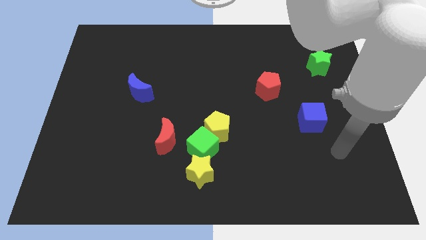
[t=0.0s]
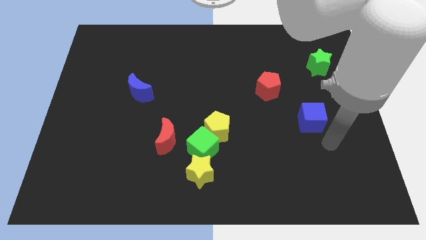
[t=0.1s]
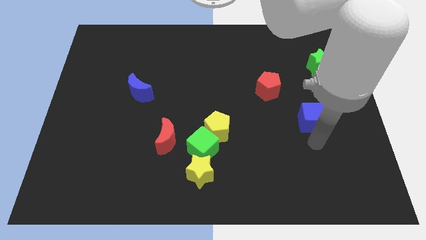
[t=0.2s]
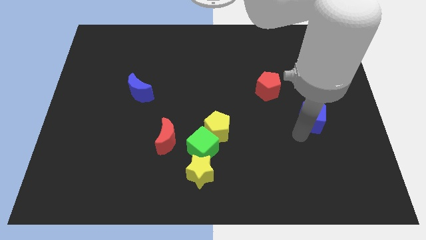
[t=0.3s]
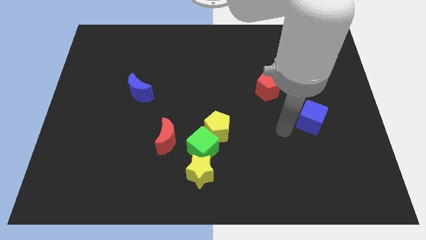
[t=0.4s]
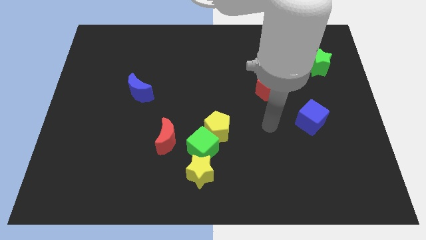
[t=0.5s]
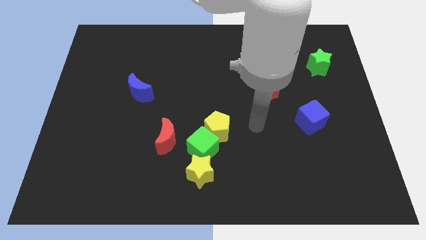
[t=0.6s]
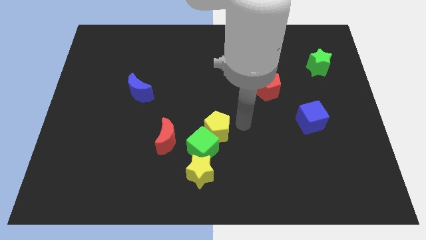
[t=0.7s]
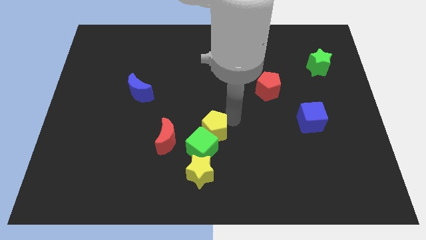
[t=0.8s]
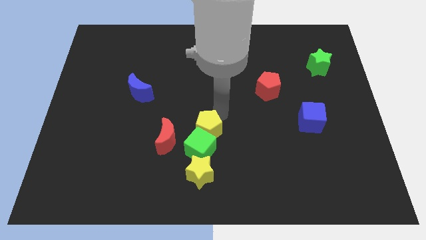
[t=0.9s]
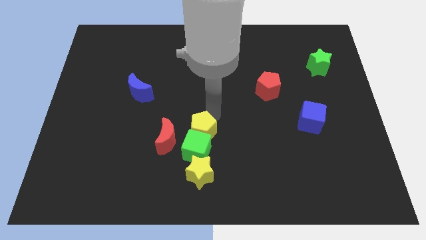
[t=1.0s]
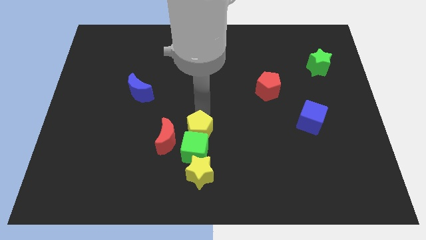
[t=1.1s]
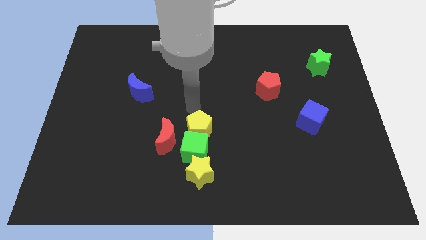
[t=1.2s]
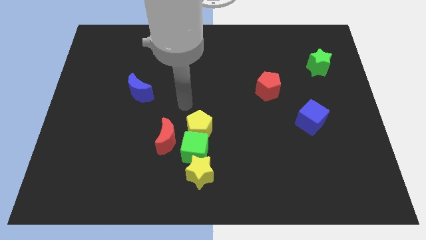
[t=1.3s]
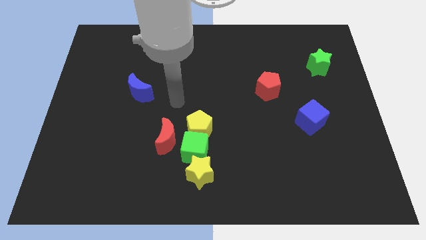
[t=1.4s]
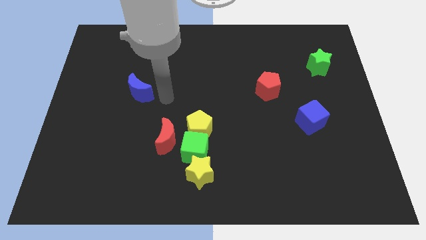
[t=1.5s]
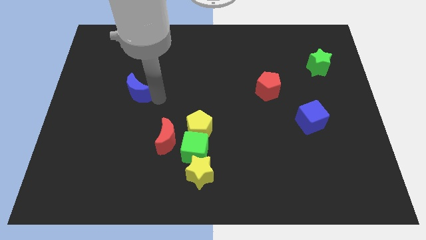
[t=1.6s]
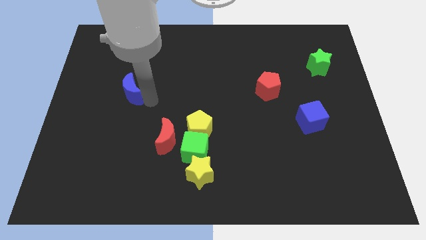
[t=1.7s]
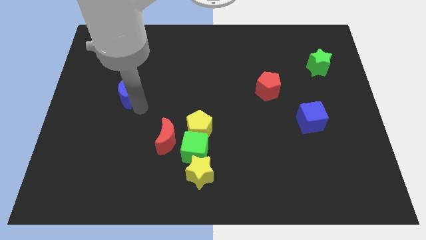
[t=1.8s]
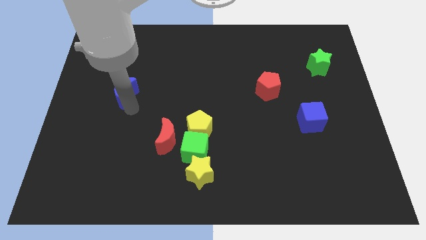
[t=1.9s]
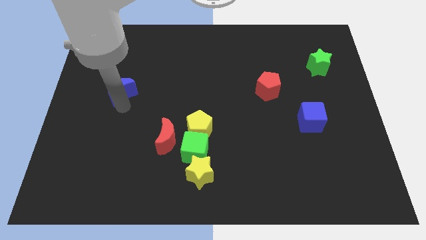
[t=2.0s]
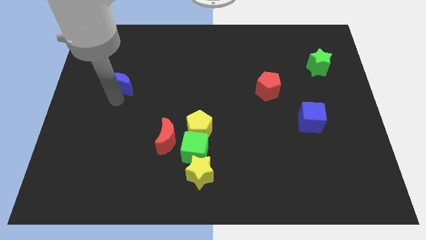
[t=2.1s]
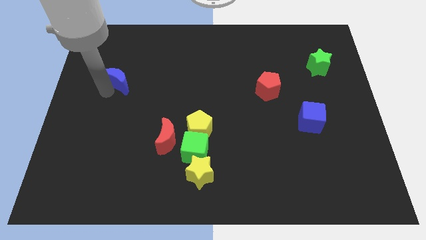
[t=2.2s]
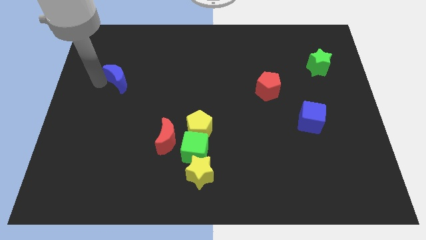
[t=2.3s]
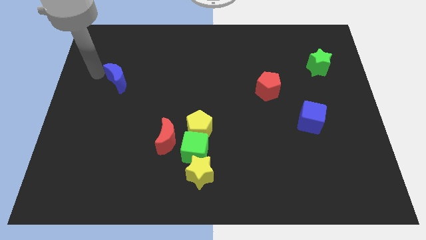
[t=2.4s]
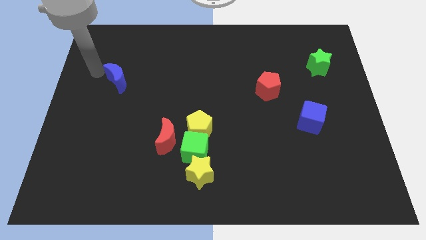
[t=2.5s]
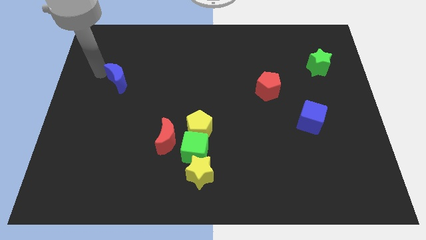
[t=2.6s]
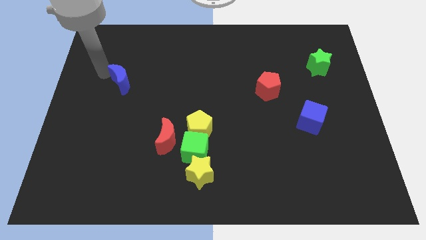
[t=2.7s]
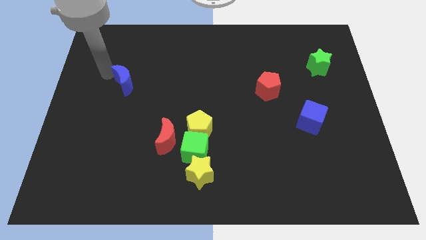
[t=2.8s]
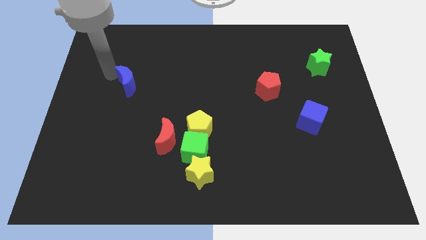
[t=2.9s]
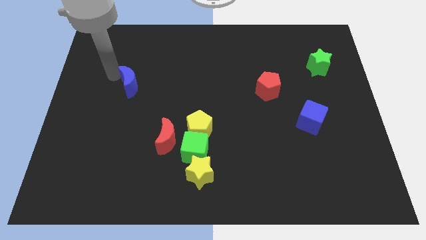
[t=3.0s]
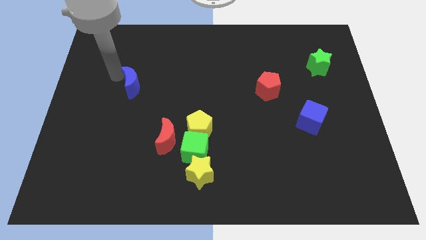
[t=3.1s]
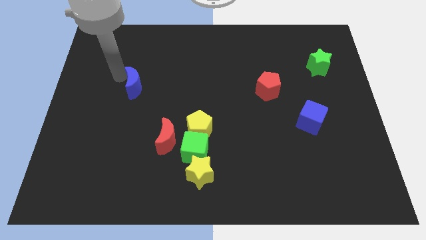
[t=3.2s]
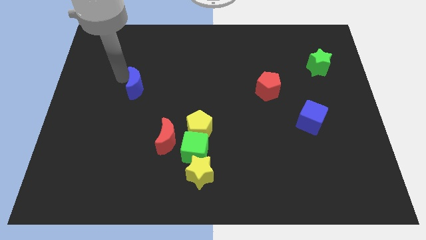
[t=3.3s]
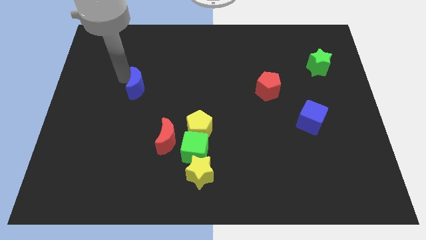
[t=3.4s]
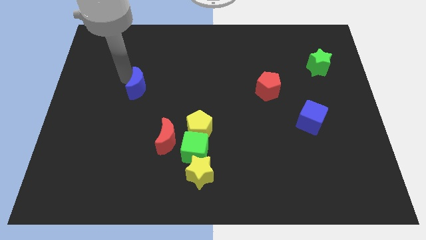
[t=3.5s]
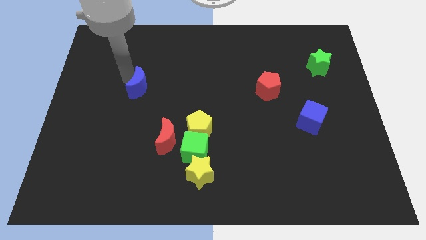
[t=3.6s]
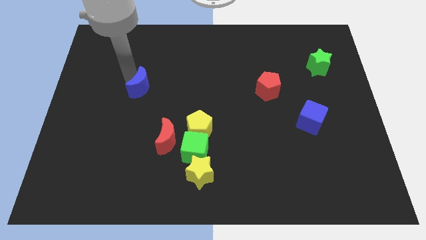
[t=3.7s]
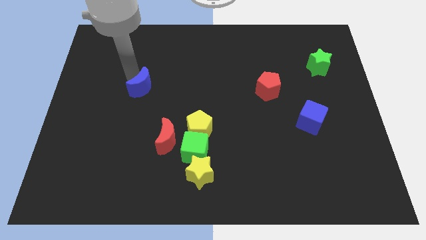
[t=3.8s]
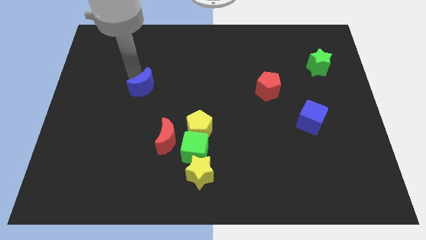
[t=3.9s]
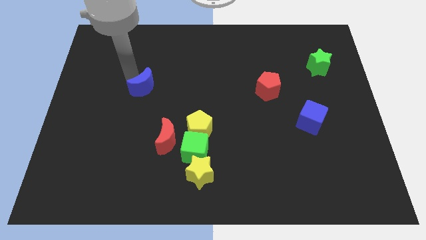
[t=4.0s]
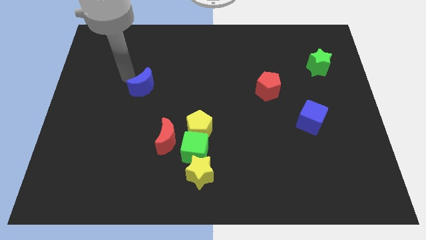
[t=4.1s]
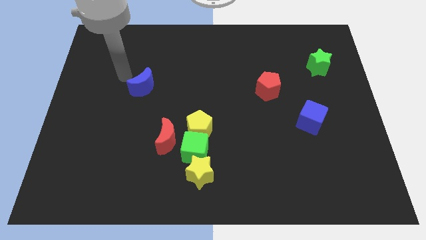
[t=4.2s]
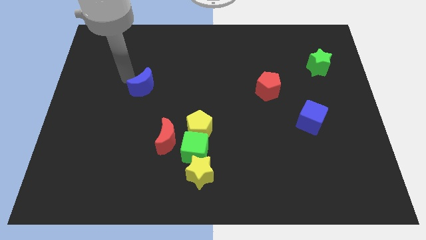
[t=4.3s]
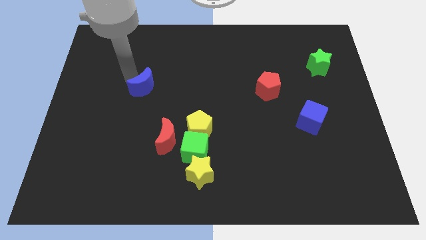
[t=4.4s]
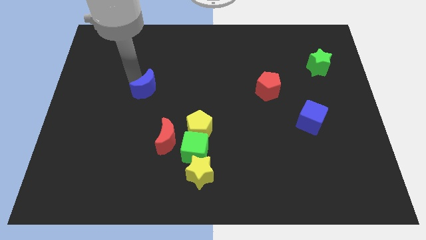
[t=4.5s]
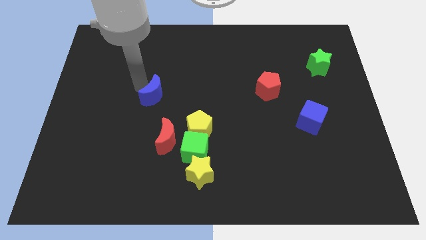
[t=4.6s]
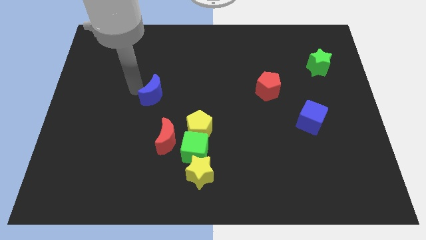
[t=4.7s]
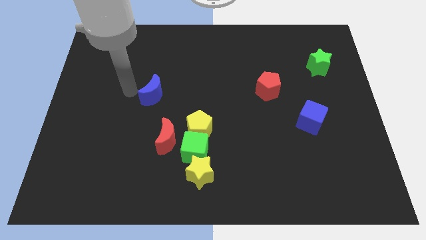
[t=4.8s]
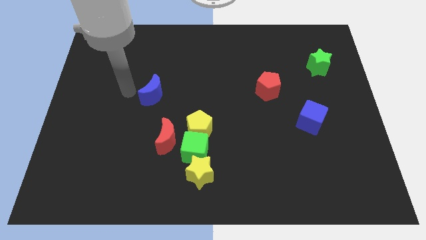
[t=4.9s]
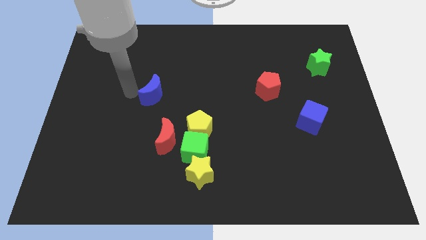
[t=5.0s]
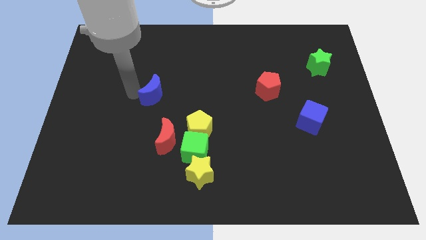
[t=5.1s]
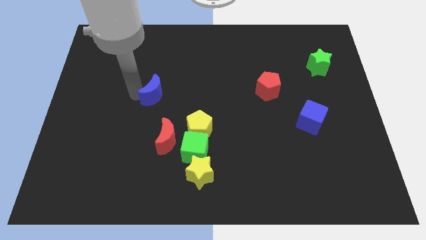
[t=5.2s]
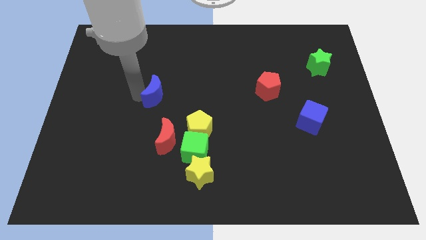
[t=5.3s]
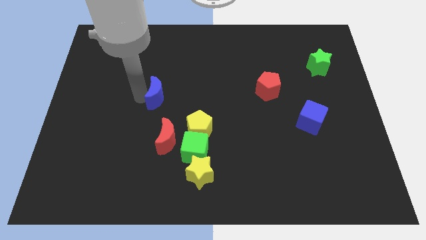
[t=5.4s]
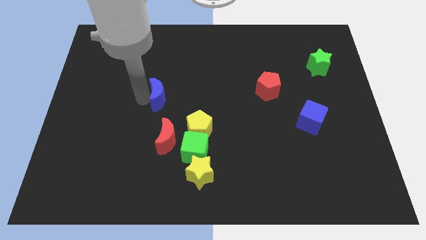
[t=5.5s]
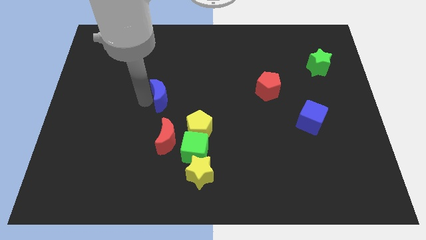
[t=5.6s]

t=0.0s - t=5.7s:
put the blue moon to the middle

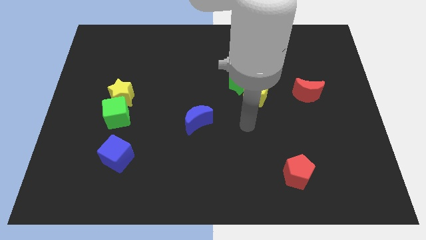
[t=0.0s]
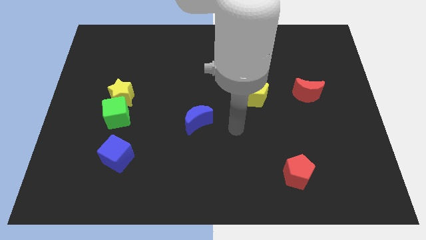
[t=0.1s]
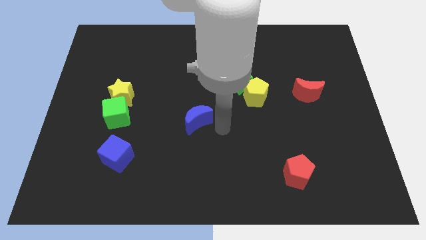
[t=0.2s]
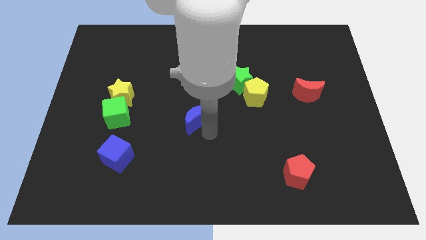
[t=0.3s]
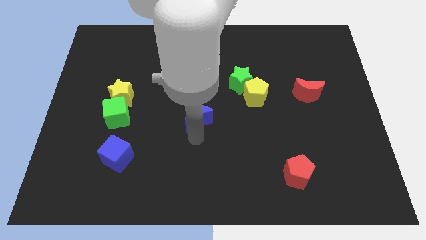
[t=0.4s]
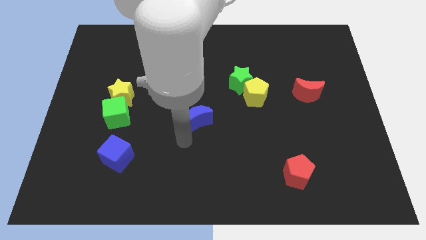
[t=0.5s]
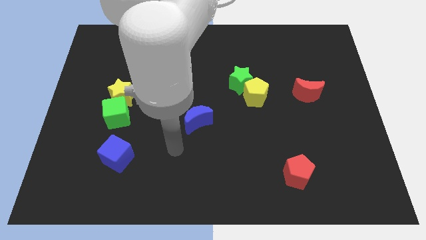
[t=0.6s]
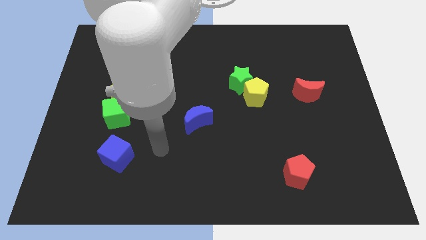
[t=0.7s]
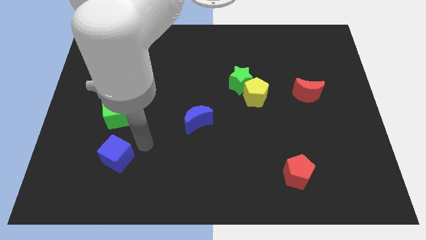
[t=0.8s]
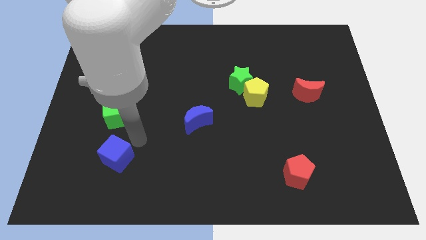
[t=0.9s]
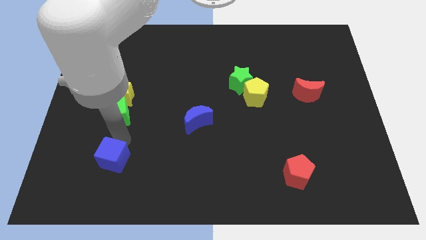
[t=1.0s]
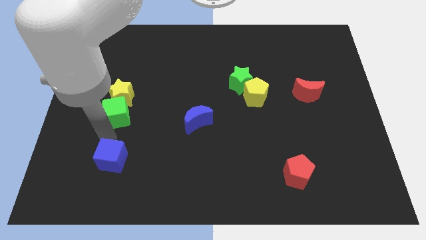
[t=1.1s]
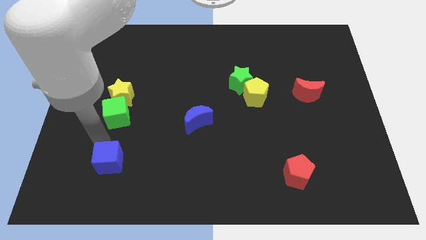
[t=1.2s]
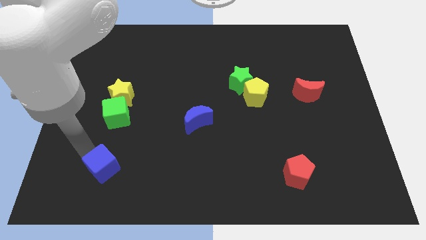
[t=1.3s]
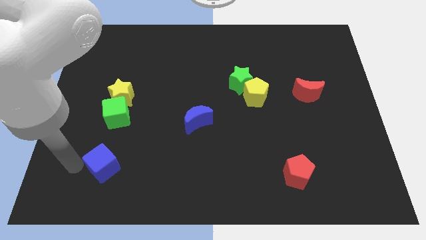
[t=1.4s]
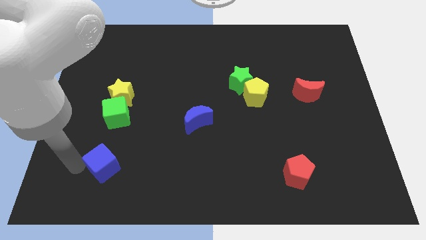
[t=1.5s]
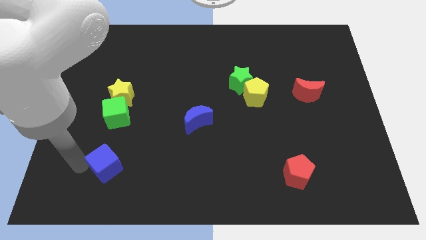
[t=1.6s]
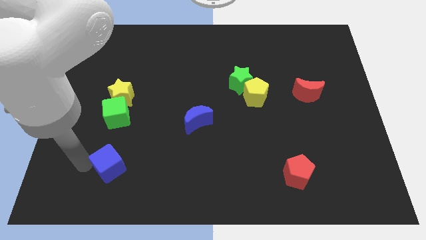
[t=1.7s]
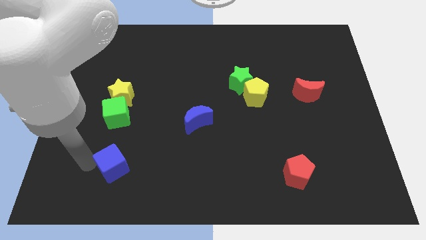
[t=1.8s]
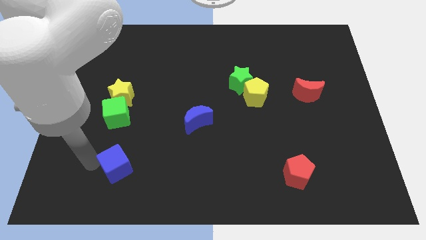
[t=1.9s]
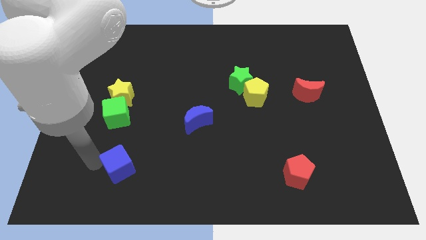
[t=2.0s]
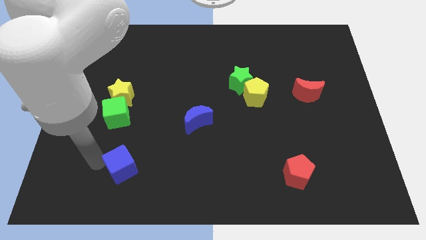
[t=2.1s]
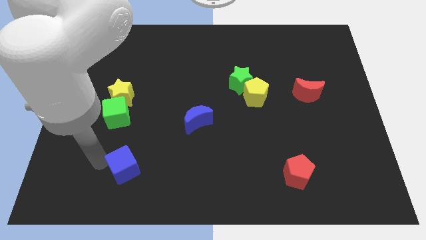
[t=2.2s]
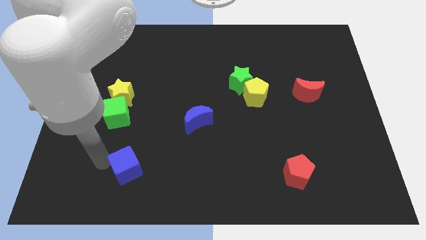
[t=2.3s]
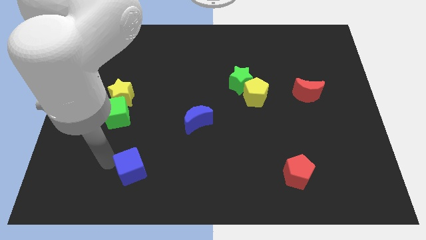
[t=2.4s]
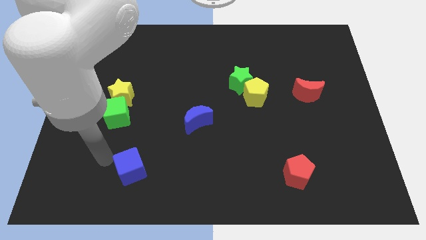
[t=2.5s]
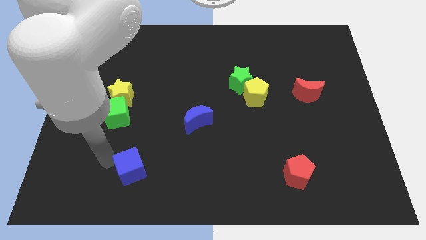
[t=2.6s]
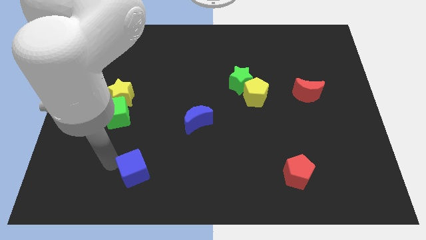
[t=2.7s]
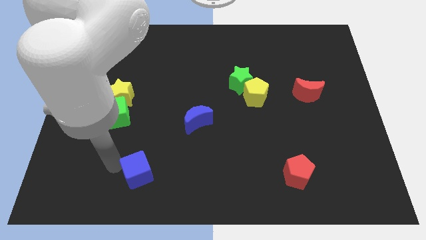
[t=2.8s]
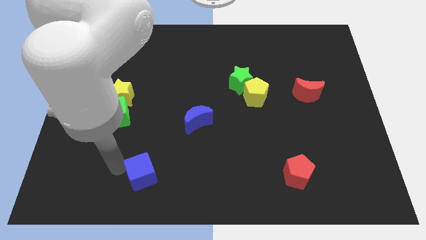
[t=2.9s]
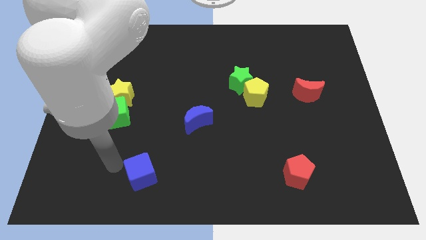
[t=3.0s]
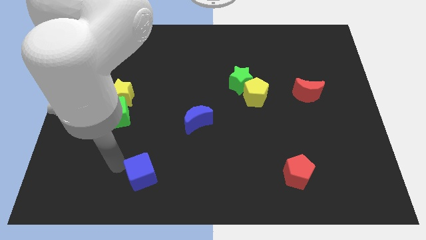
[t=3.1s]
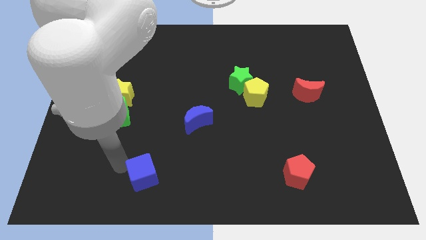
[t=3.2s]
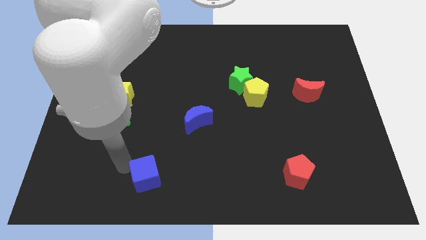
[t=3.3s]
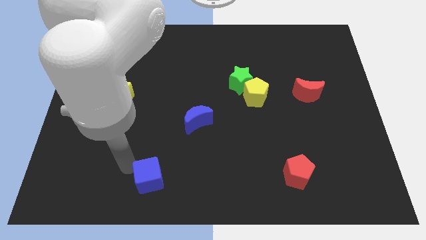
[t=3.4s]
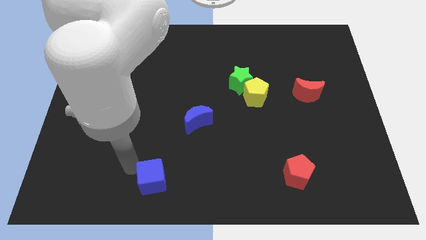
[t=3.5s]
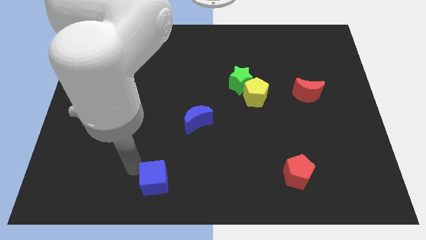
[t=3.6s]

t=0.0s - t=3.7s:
slide the blue cube to the bottom side
